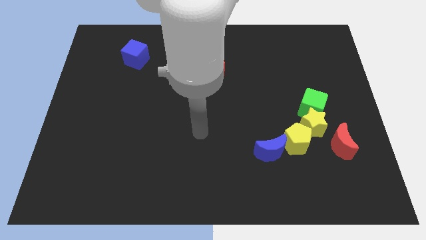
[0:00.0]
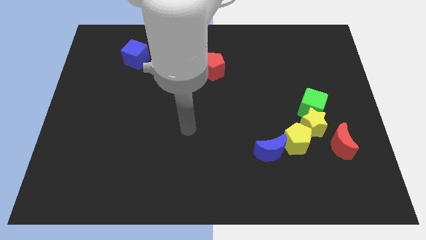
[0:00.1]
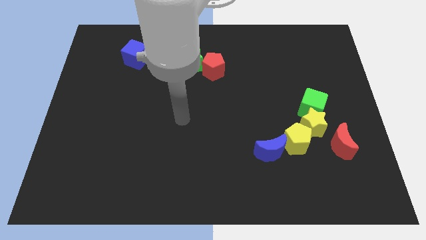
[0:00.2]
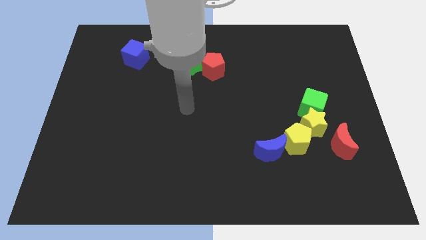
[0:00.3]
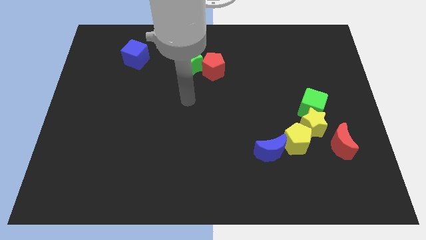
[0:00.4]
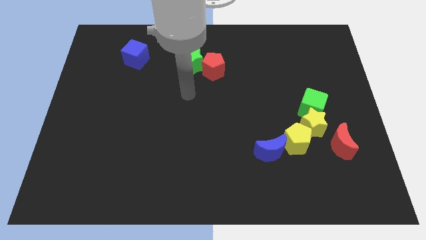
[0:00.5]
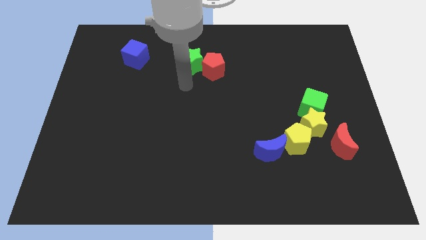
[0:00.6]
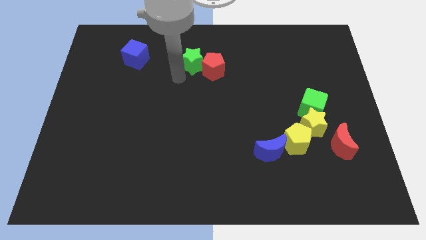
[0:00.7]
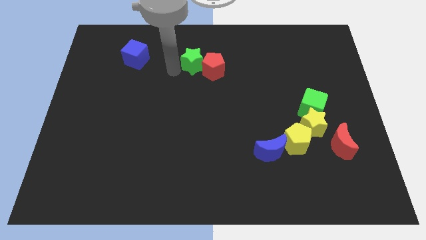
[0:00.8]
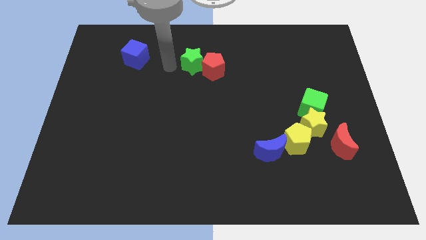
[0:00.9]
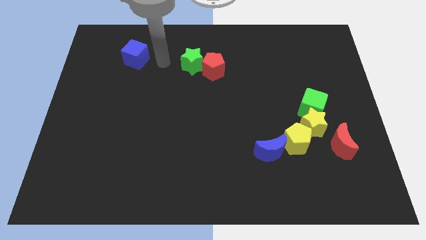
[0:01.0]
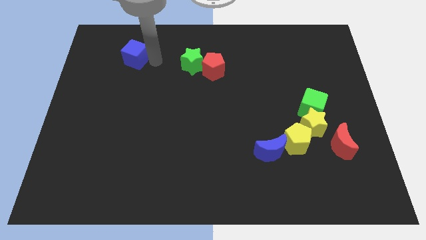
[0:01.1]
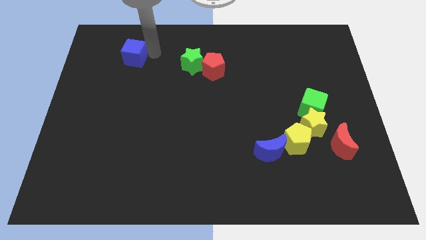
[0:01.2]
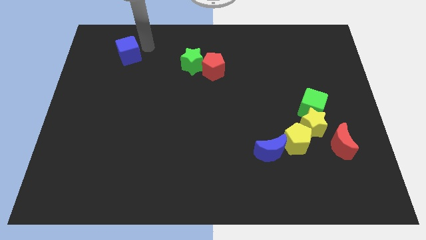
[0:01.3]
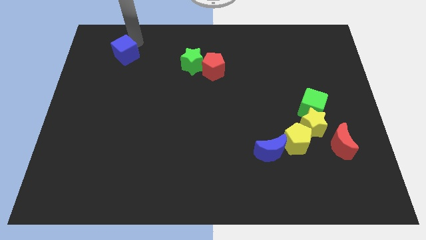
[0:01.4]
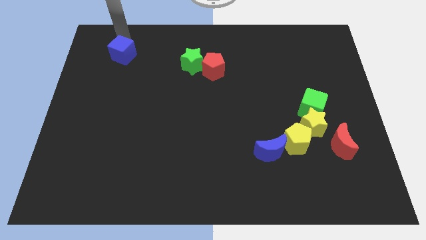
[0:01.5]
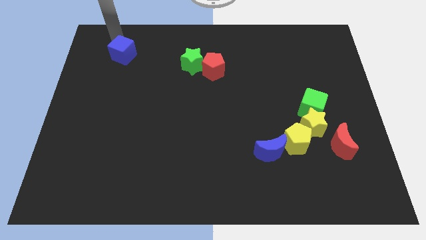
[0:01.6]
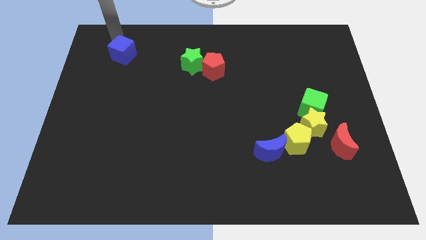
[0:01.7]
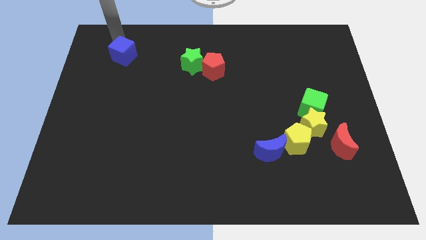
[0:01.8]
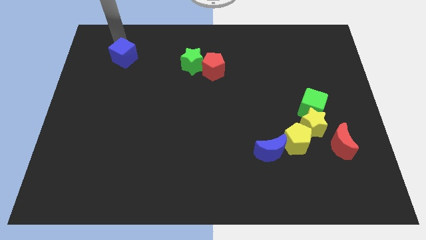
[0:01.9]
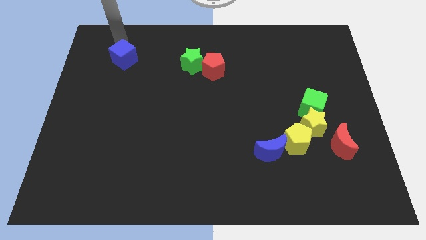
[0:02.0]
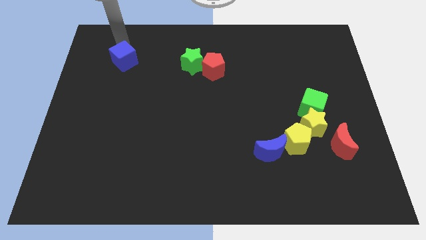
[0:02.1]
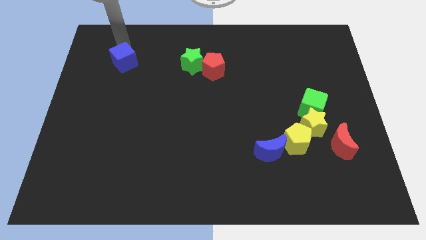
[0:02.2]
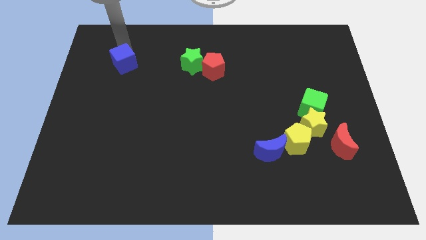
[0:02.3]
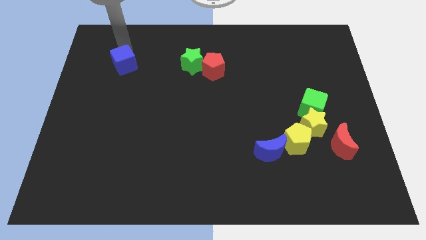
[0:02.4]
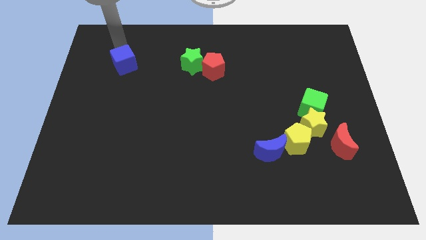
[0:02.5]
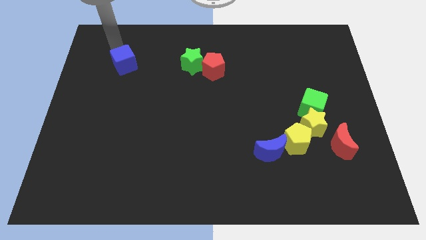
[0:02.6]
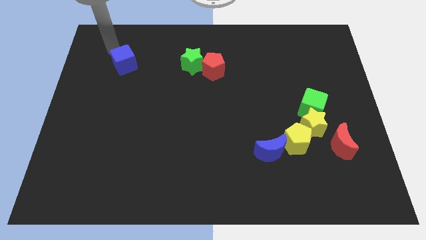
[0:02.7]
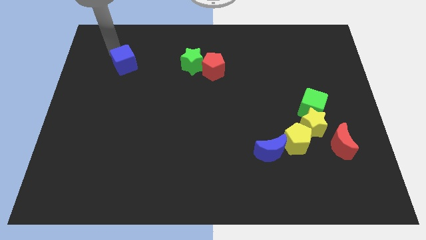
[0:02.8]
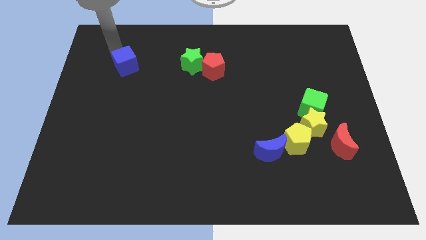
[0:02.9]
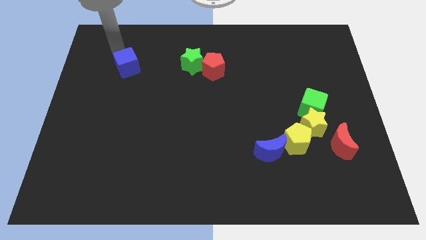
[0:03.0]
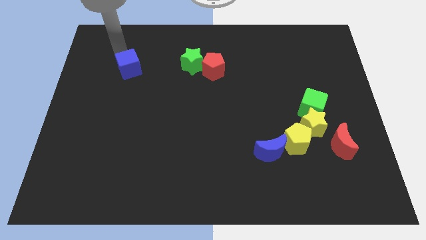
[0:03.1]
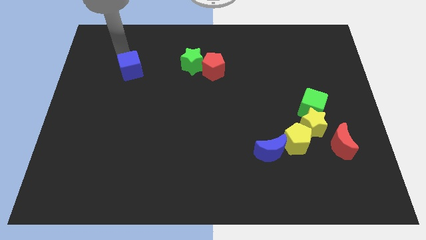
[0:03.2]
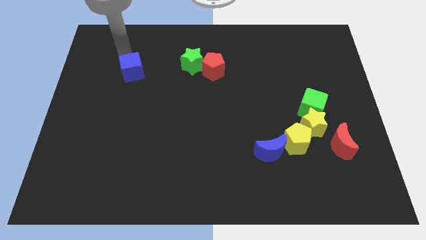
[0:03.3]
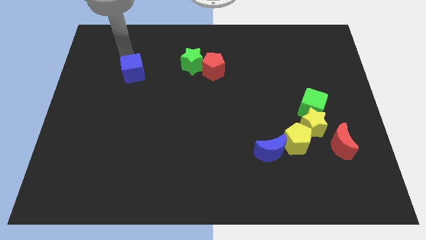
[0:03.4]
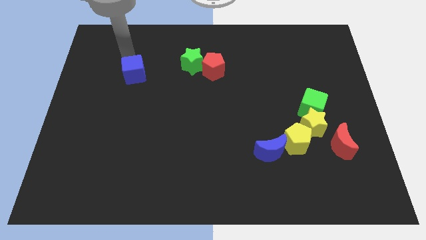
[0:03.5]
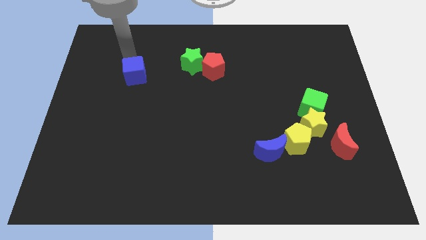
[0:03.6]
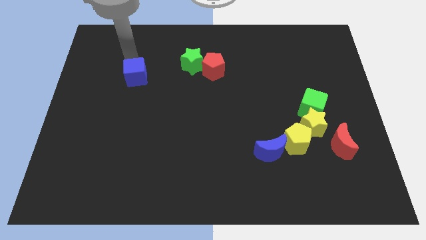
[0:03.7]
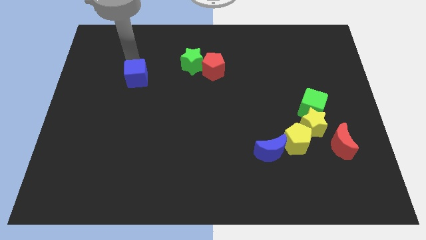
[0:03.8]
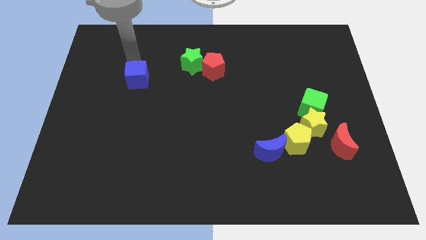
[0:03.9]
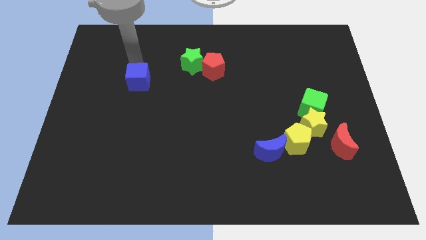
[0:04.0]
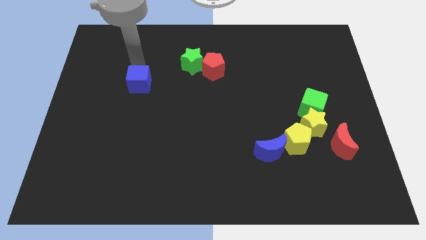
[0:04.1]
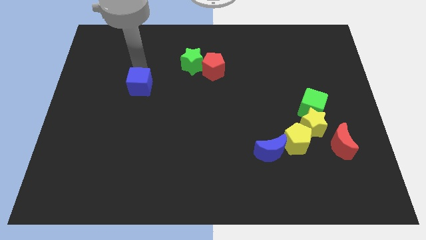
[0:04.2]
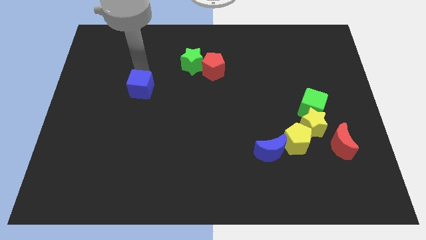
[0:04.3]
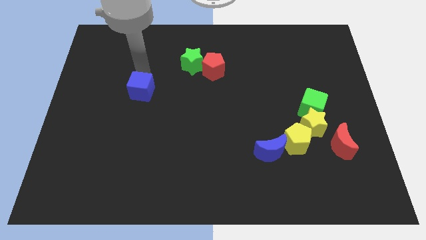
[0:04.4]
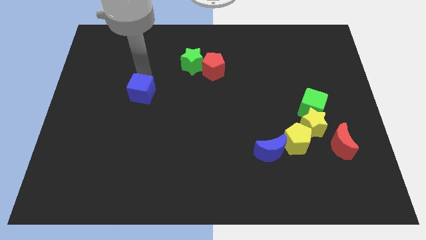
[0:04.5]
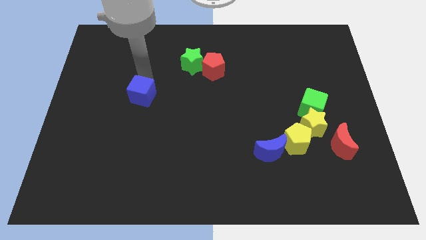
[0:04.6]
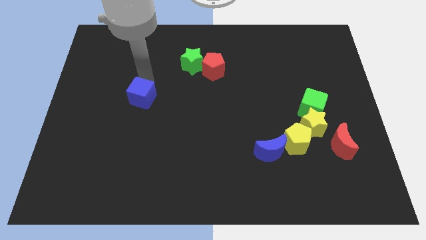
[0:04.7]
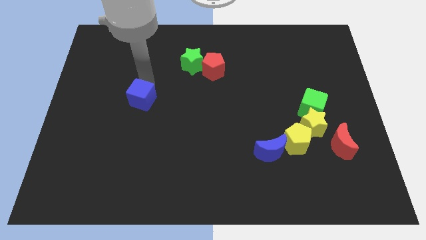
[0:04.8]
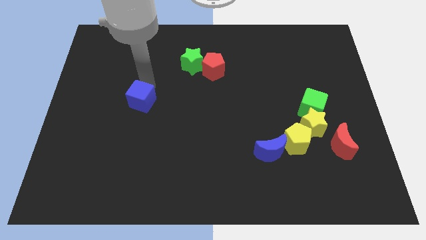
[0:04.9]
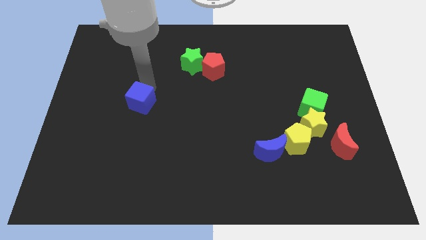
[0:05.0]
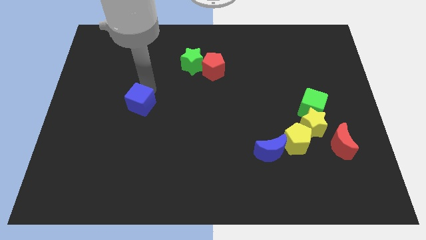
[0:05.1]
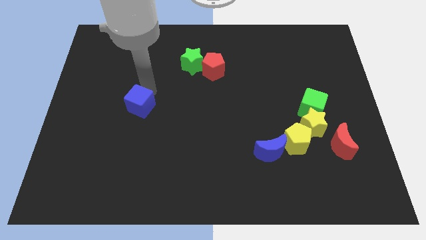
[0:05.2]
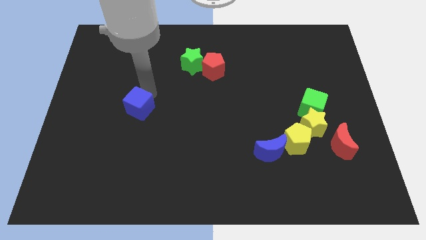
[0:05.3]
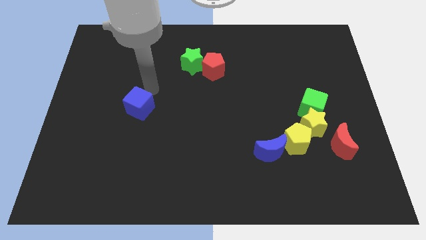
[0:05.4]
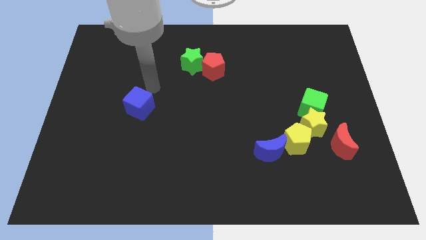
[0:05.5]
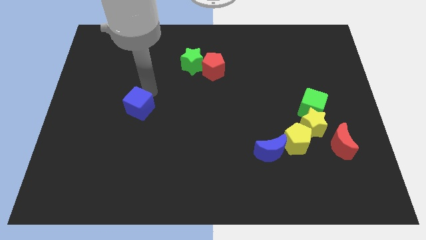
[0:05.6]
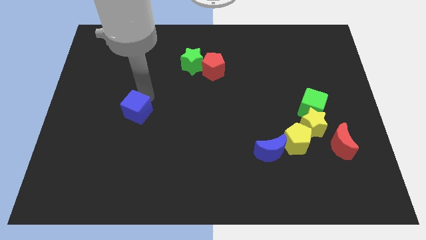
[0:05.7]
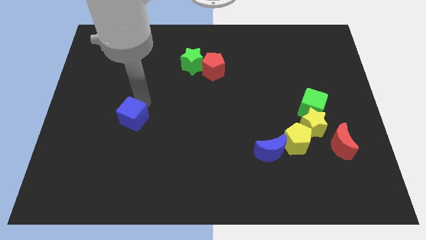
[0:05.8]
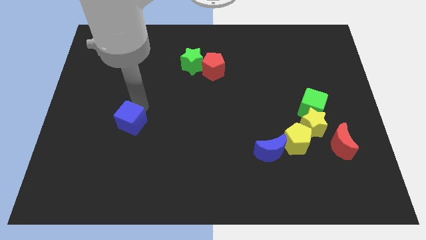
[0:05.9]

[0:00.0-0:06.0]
push the blue cube down

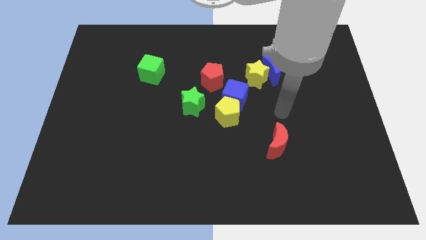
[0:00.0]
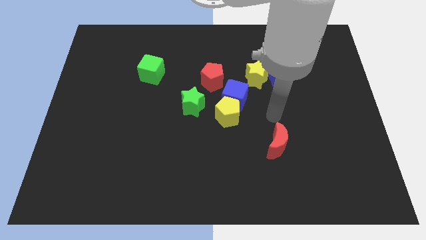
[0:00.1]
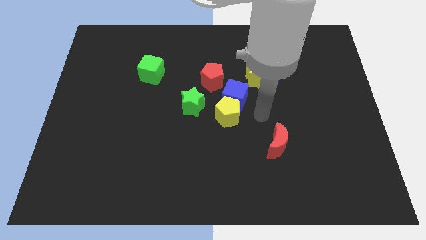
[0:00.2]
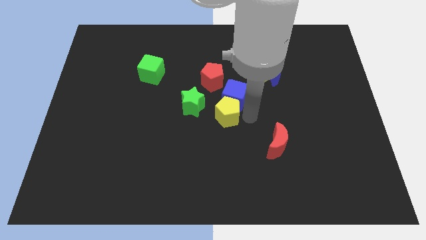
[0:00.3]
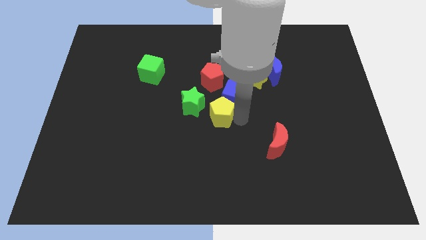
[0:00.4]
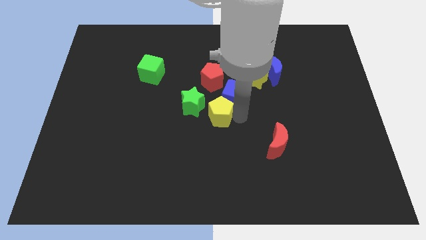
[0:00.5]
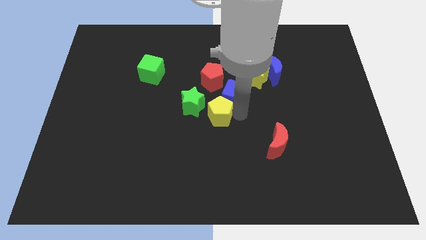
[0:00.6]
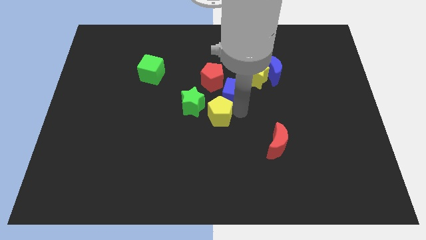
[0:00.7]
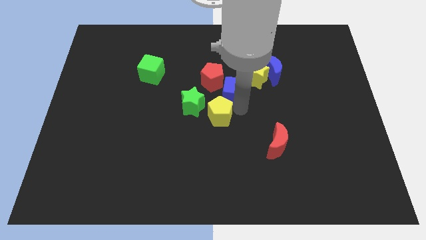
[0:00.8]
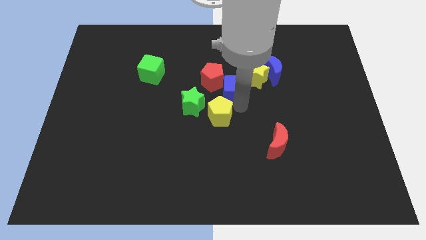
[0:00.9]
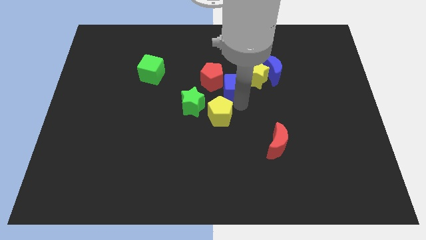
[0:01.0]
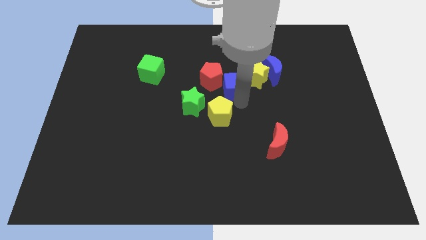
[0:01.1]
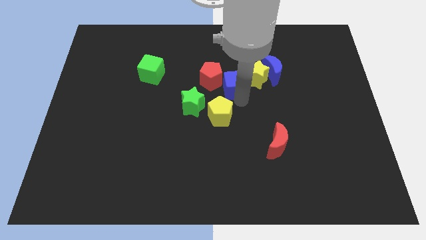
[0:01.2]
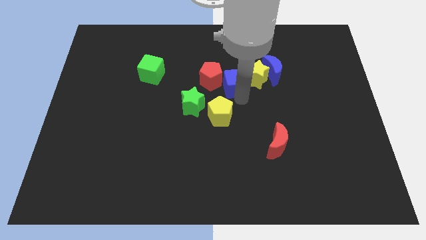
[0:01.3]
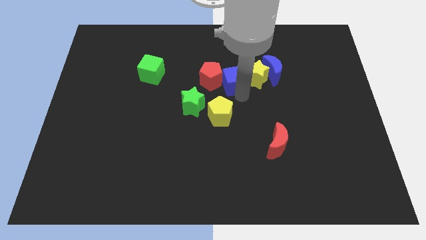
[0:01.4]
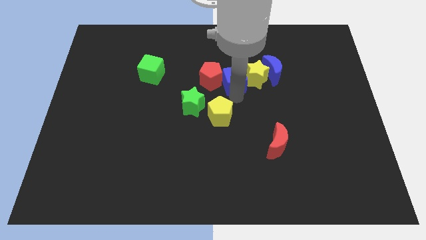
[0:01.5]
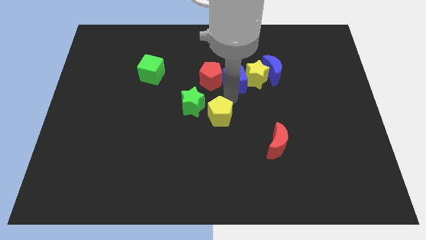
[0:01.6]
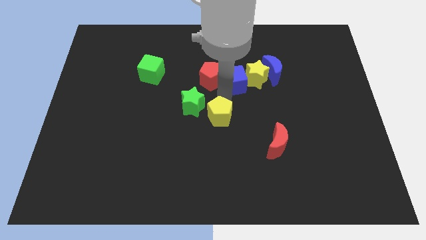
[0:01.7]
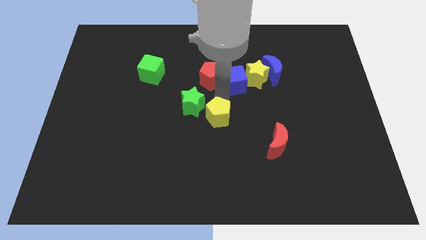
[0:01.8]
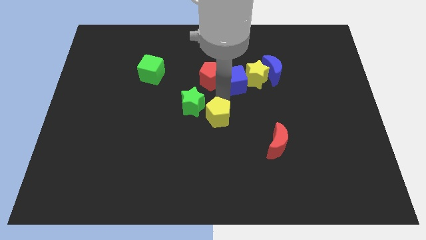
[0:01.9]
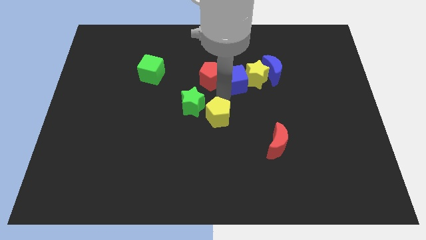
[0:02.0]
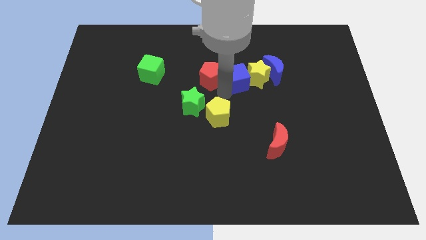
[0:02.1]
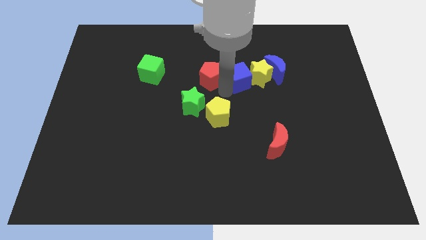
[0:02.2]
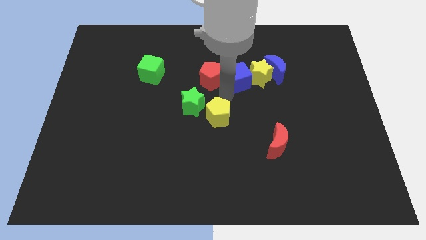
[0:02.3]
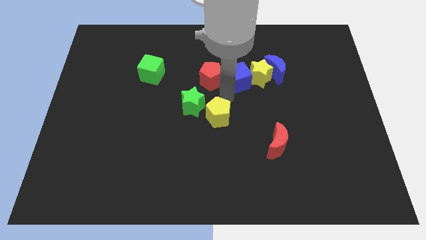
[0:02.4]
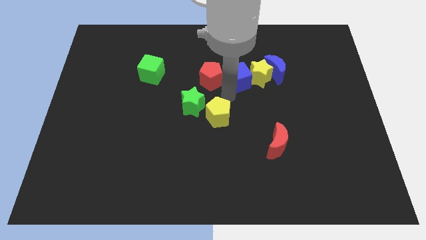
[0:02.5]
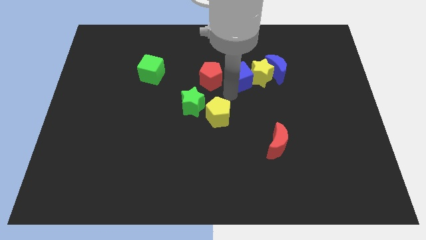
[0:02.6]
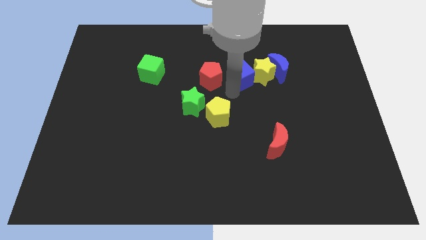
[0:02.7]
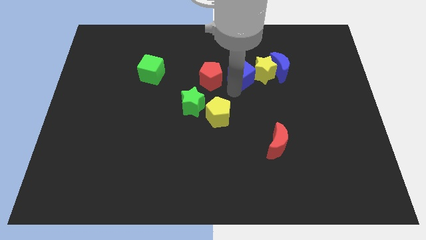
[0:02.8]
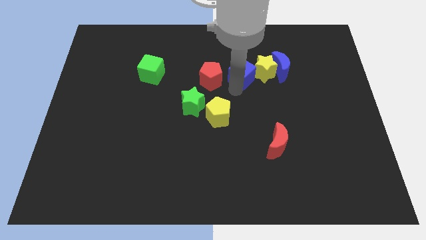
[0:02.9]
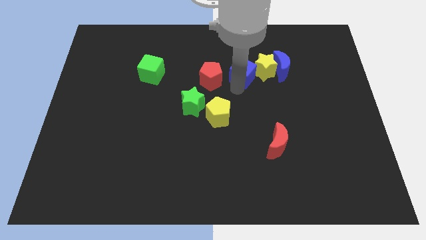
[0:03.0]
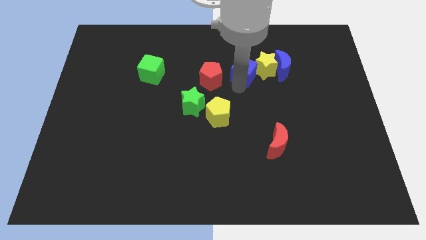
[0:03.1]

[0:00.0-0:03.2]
slightly move the blue cube upwards and to the right
